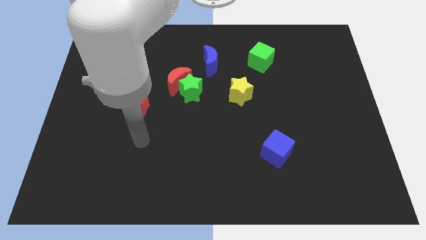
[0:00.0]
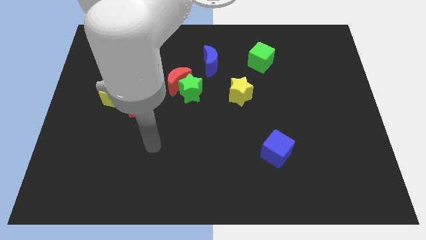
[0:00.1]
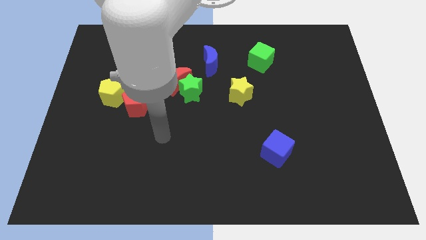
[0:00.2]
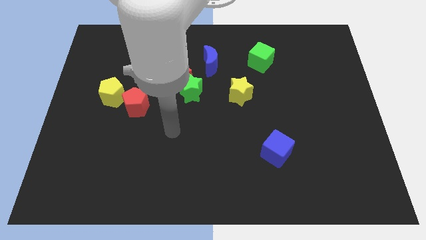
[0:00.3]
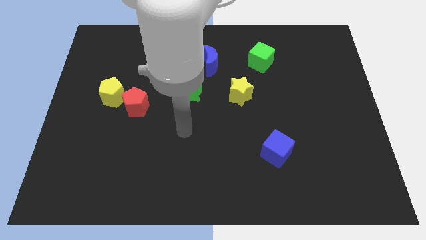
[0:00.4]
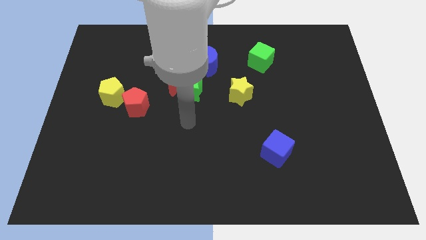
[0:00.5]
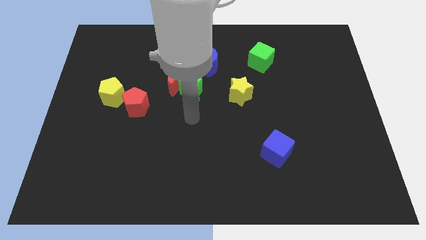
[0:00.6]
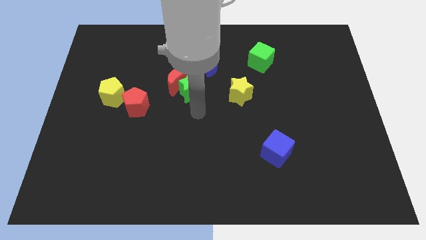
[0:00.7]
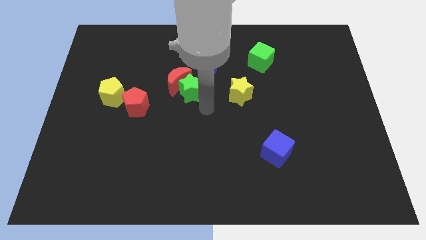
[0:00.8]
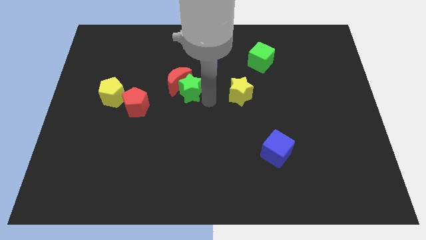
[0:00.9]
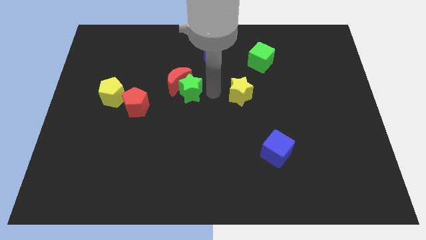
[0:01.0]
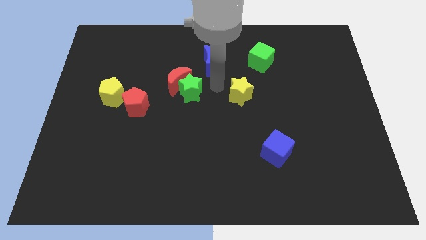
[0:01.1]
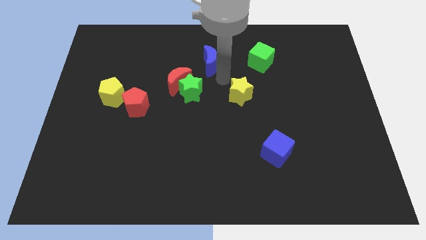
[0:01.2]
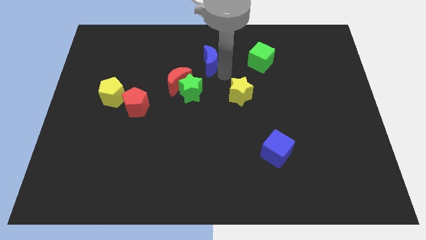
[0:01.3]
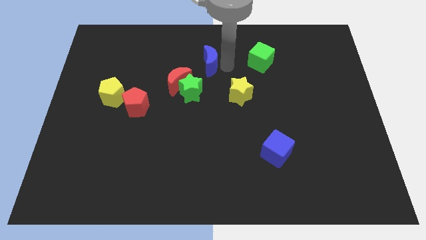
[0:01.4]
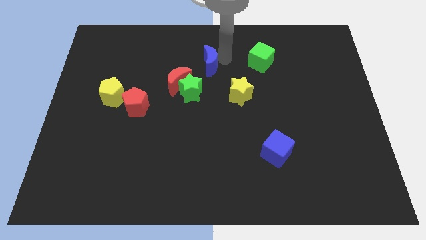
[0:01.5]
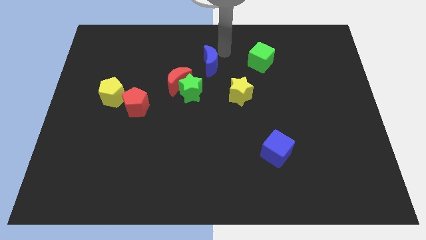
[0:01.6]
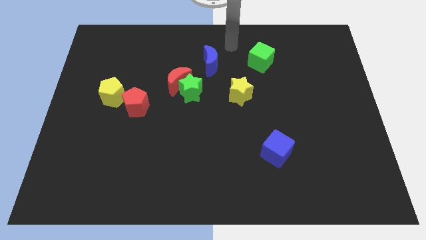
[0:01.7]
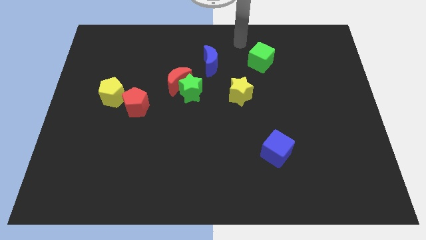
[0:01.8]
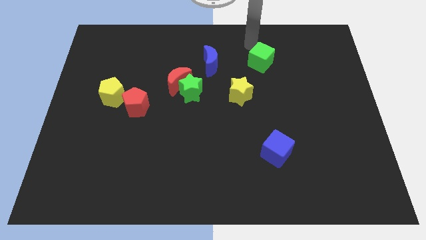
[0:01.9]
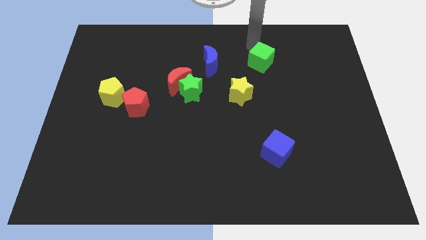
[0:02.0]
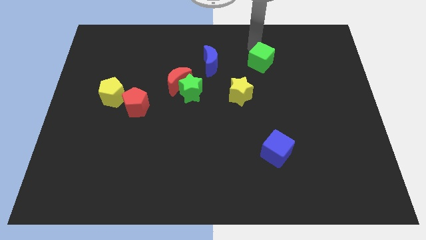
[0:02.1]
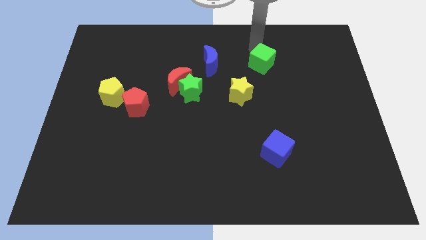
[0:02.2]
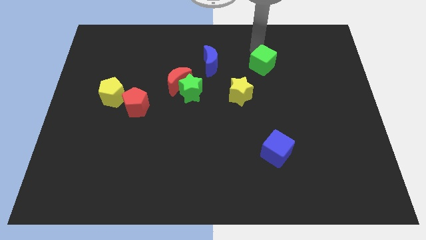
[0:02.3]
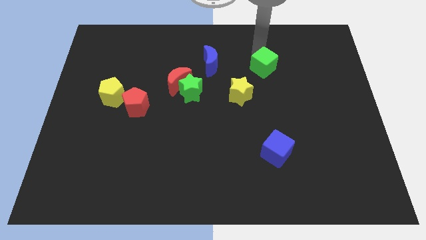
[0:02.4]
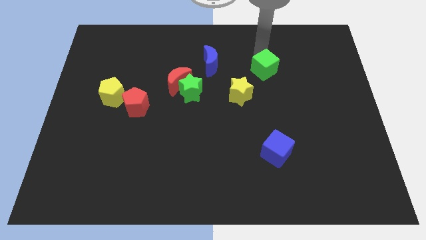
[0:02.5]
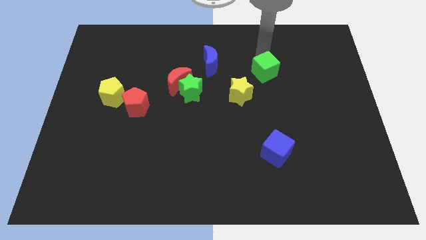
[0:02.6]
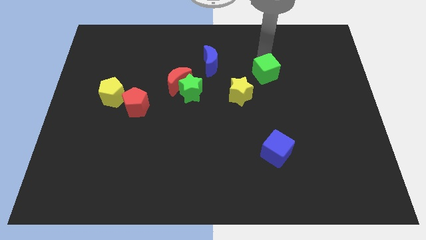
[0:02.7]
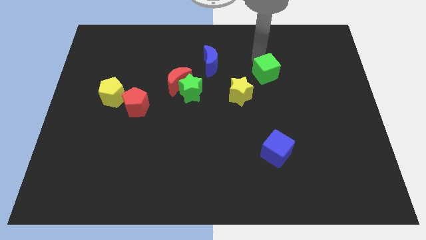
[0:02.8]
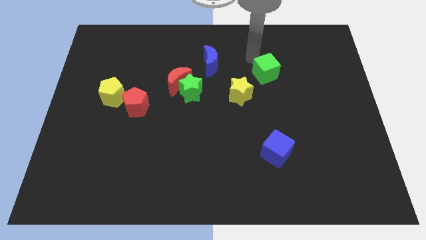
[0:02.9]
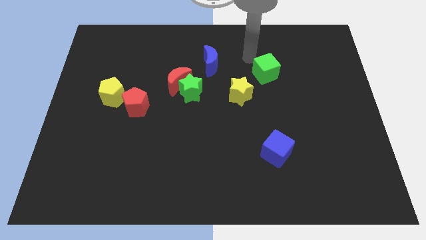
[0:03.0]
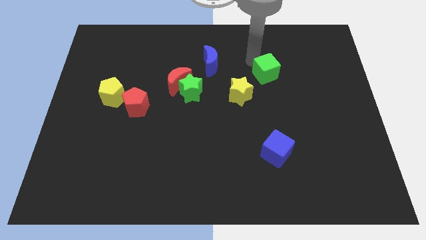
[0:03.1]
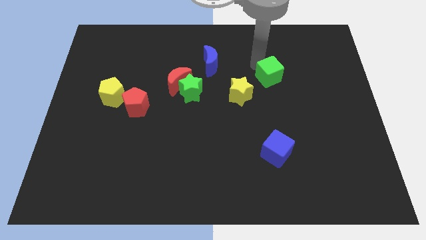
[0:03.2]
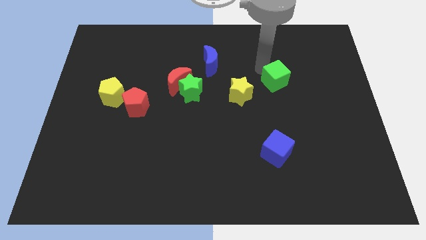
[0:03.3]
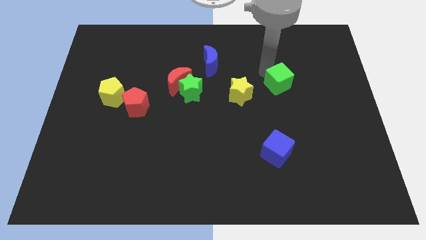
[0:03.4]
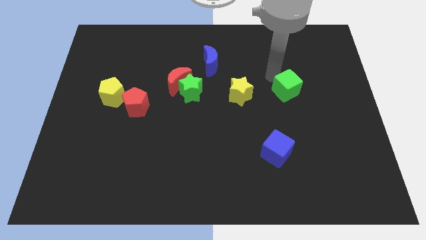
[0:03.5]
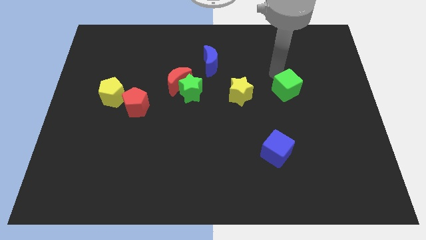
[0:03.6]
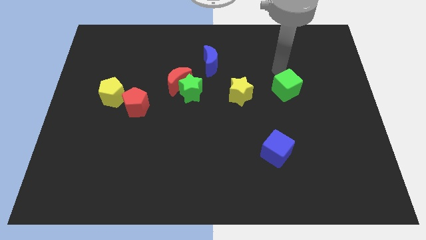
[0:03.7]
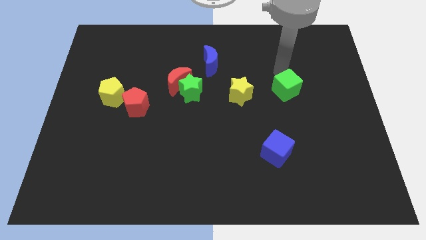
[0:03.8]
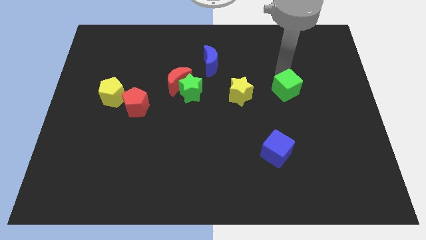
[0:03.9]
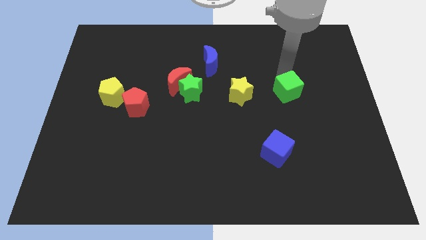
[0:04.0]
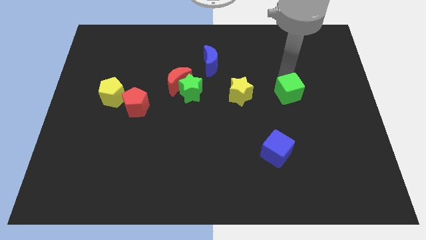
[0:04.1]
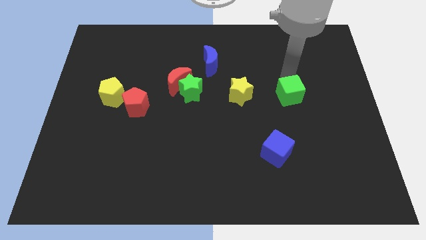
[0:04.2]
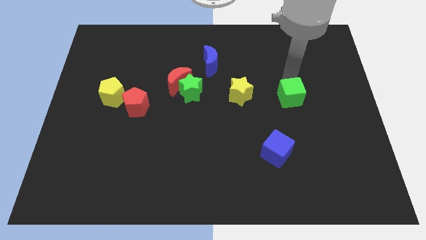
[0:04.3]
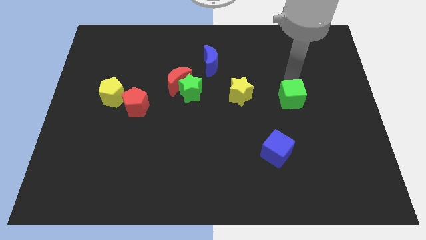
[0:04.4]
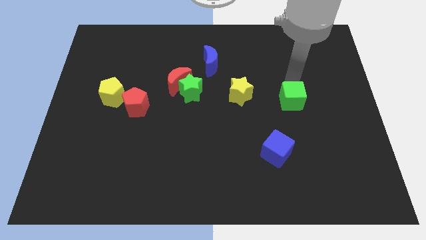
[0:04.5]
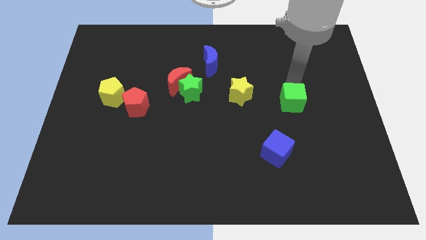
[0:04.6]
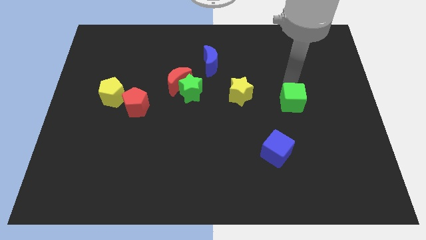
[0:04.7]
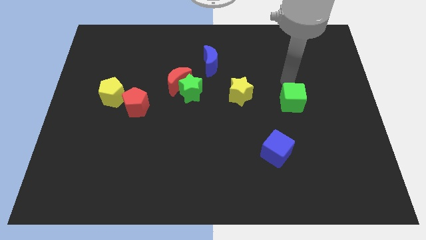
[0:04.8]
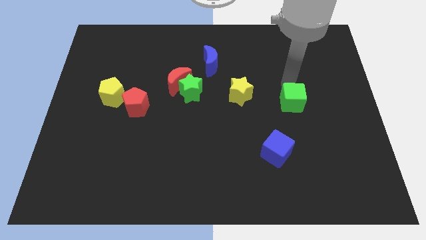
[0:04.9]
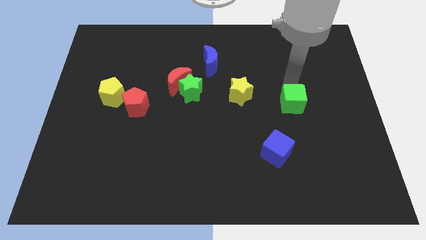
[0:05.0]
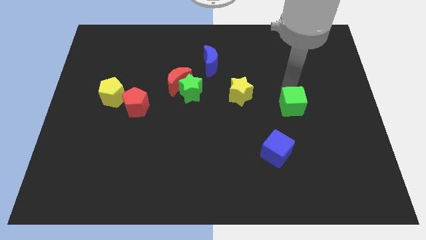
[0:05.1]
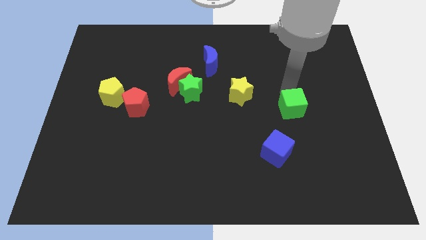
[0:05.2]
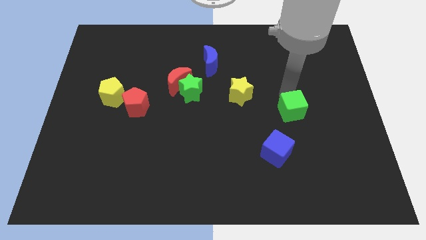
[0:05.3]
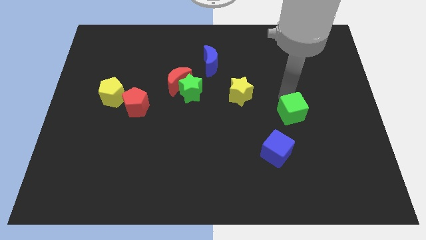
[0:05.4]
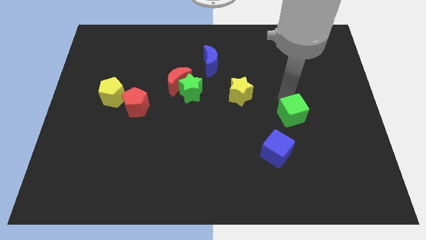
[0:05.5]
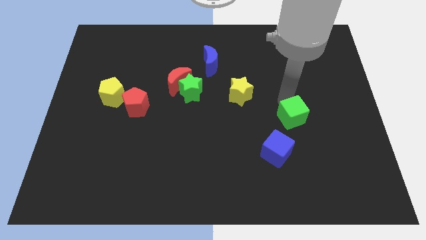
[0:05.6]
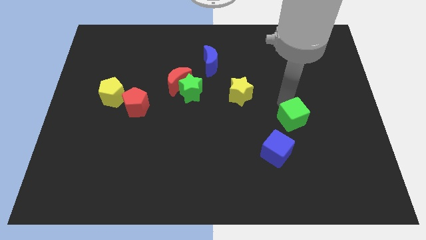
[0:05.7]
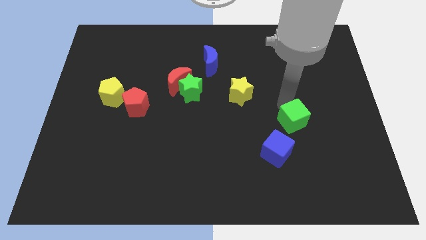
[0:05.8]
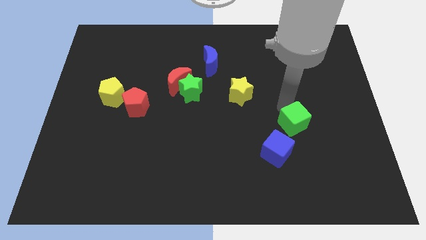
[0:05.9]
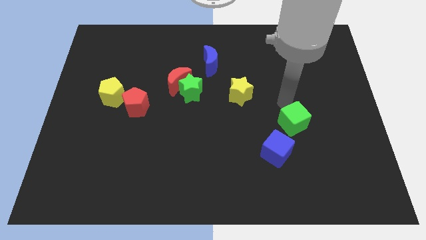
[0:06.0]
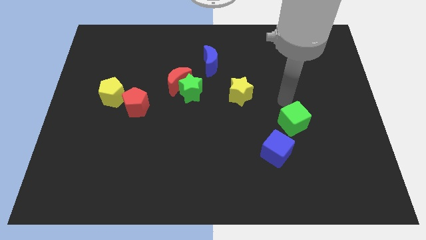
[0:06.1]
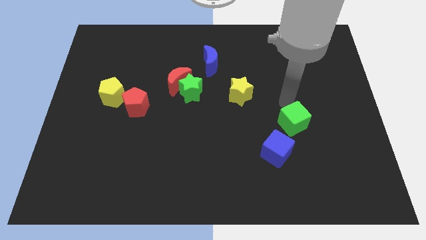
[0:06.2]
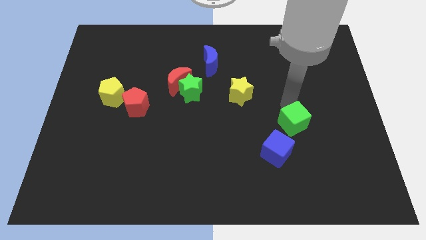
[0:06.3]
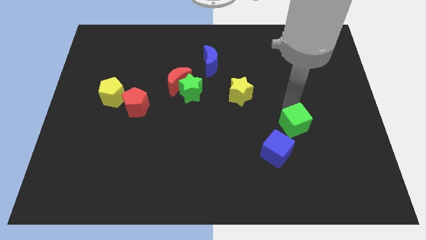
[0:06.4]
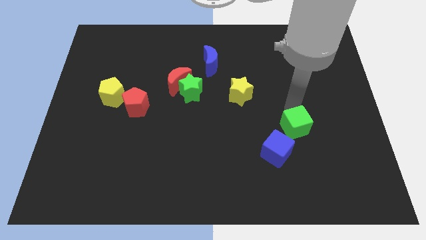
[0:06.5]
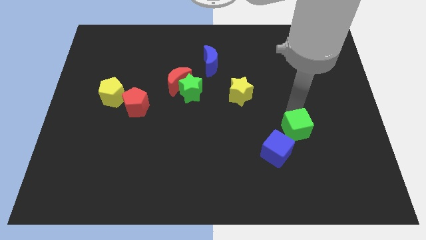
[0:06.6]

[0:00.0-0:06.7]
push the green cube downwards

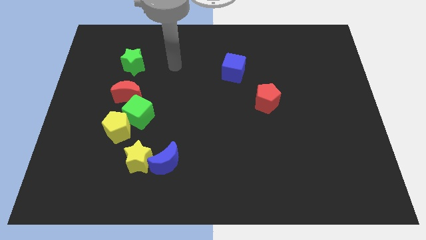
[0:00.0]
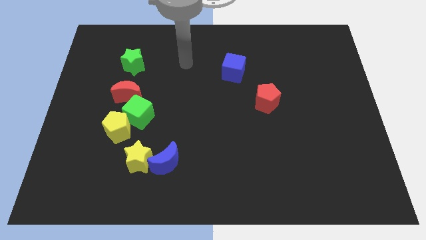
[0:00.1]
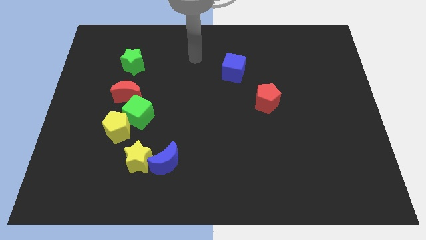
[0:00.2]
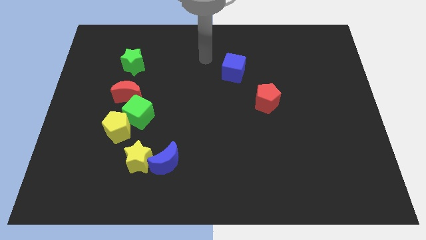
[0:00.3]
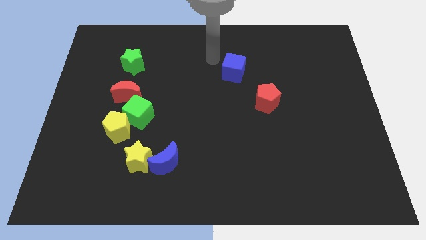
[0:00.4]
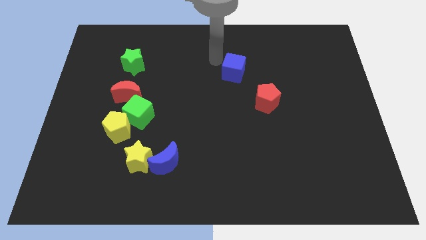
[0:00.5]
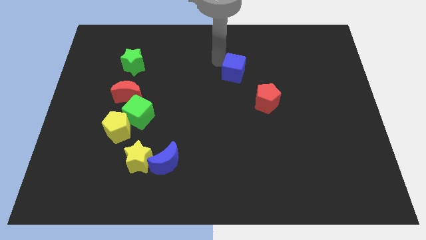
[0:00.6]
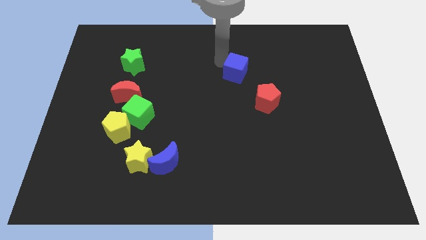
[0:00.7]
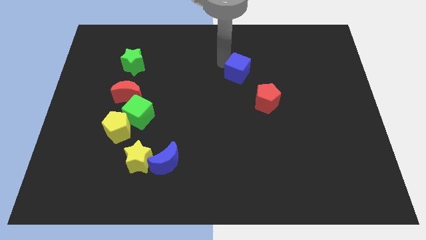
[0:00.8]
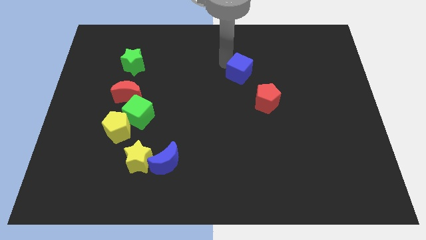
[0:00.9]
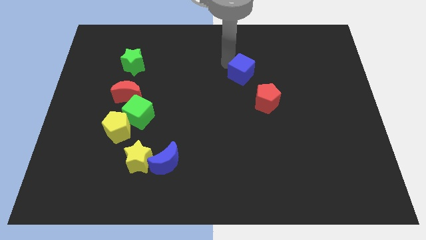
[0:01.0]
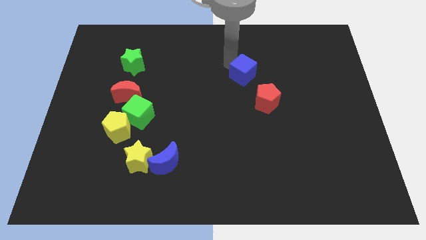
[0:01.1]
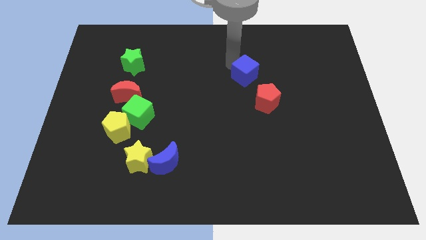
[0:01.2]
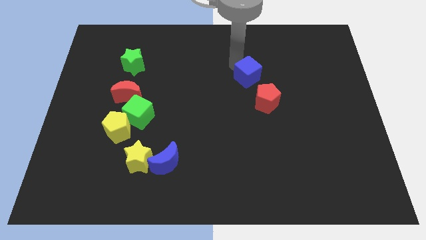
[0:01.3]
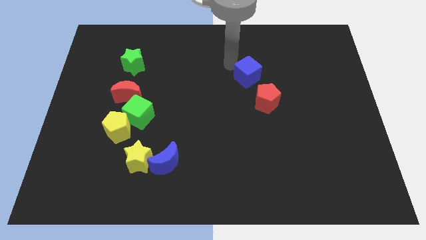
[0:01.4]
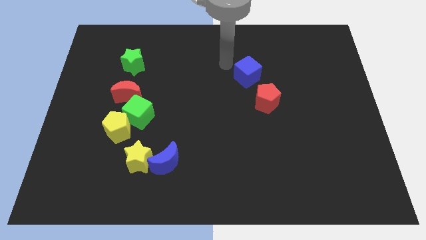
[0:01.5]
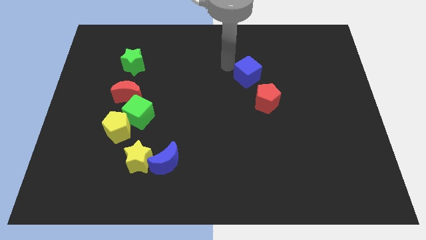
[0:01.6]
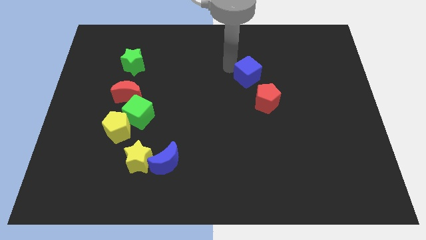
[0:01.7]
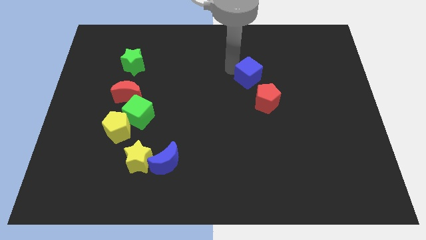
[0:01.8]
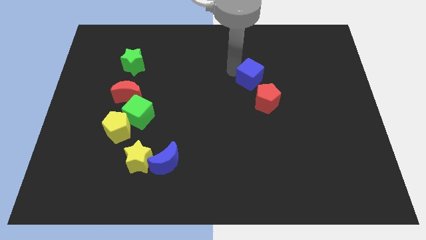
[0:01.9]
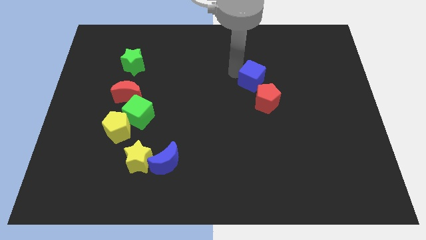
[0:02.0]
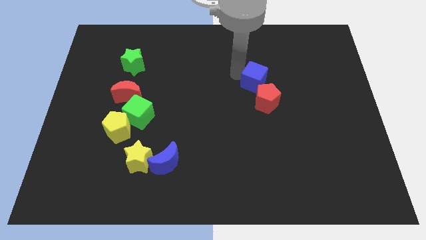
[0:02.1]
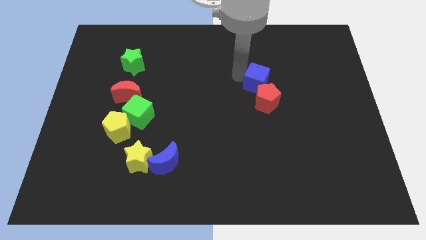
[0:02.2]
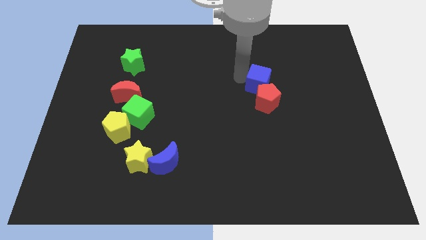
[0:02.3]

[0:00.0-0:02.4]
push the blue cube downwards and right slightly
